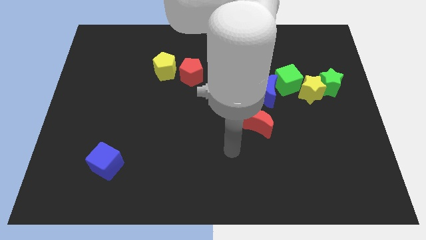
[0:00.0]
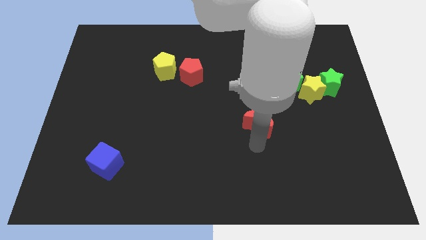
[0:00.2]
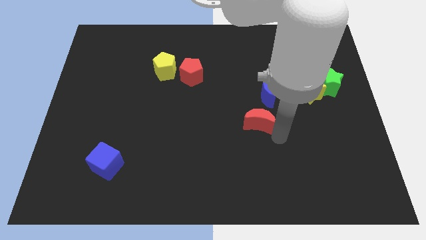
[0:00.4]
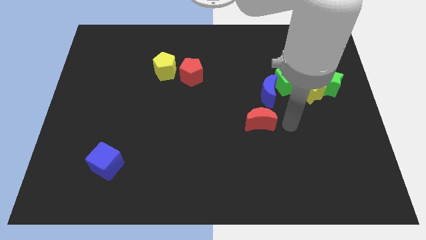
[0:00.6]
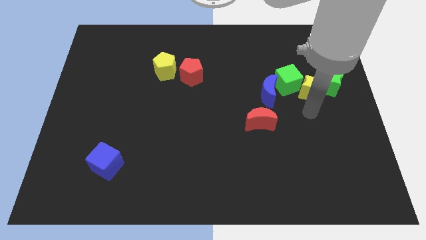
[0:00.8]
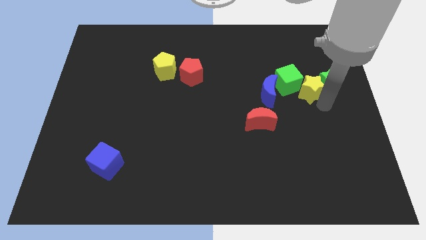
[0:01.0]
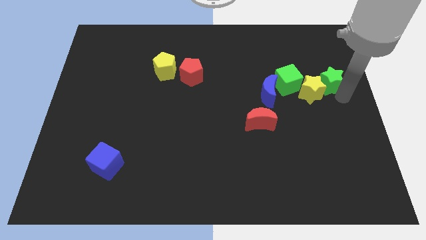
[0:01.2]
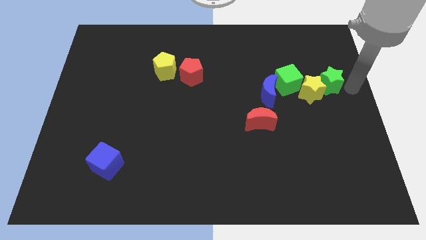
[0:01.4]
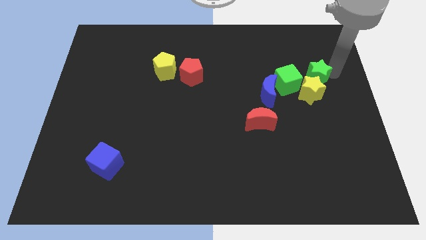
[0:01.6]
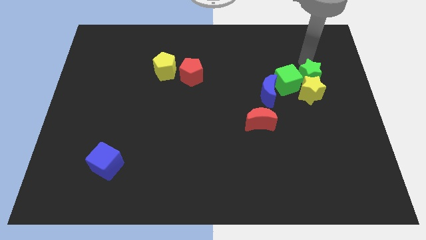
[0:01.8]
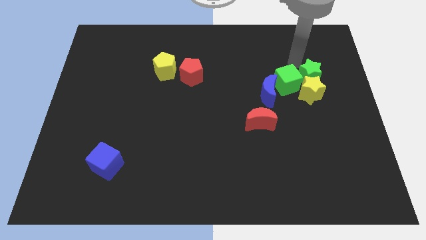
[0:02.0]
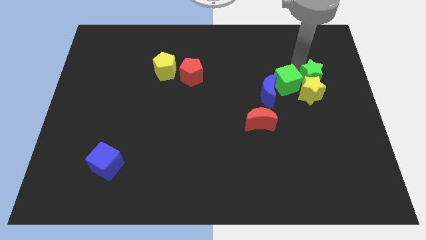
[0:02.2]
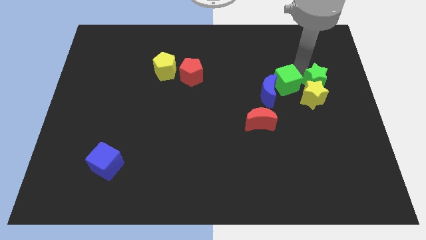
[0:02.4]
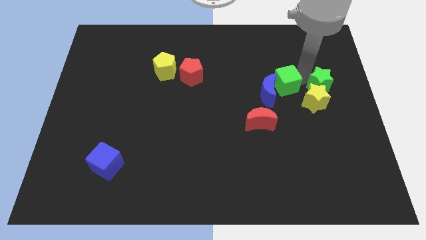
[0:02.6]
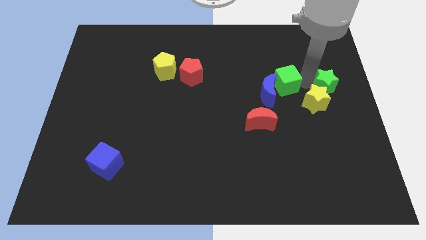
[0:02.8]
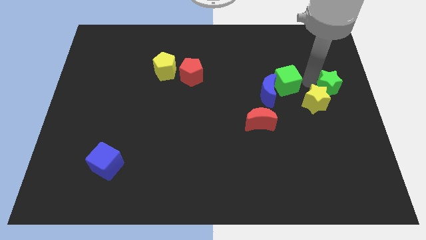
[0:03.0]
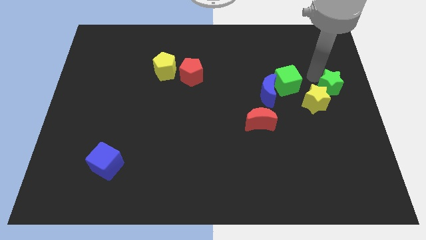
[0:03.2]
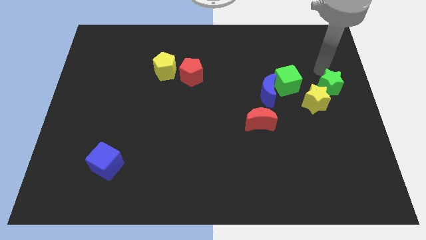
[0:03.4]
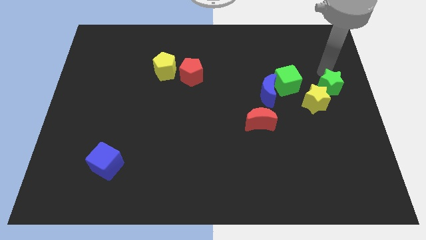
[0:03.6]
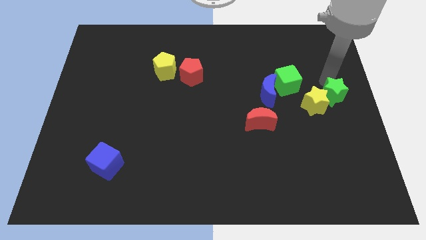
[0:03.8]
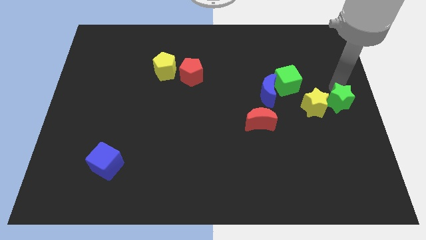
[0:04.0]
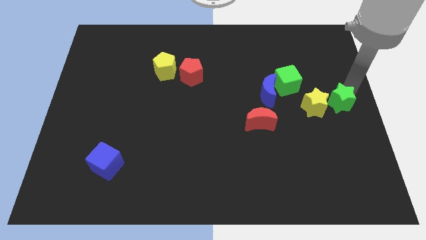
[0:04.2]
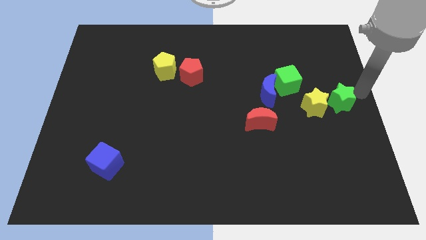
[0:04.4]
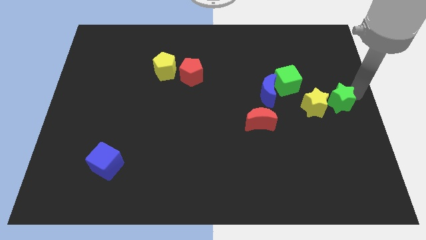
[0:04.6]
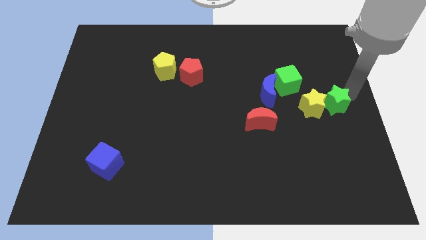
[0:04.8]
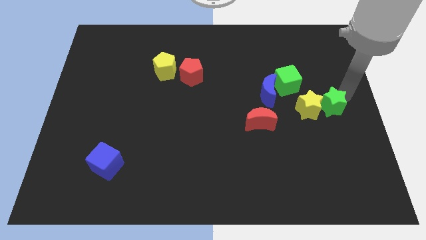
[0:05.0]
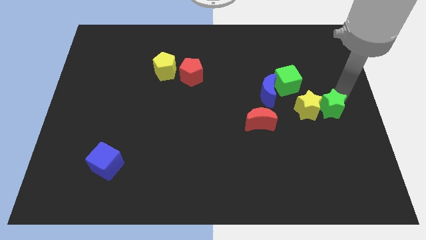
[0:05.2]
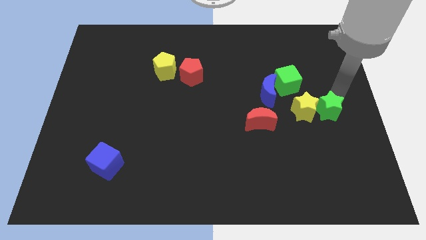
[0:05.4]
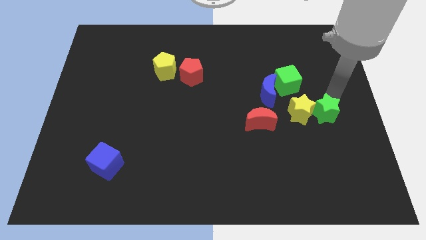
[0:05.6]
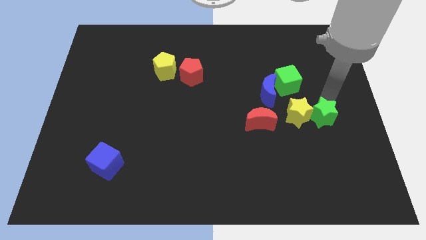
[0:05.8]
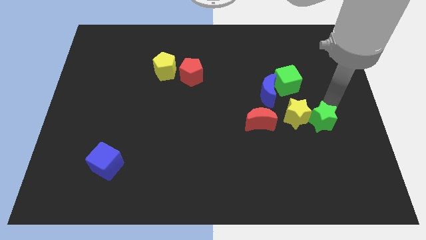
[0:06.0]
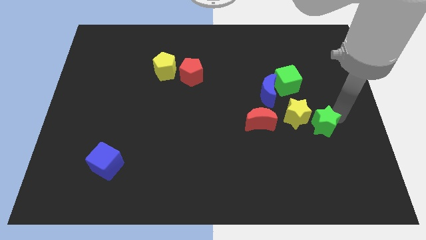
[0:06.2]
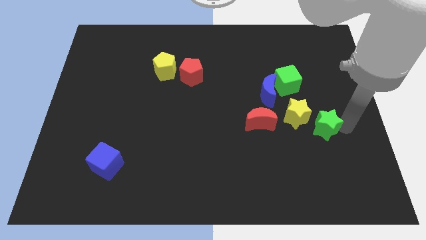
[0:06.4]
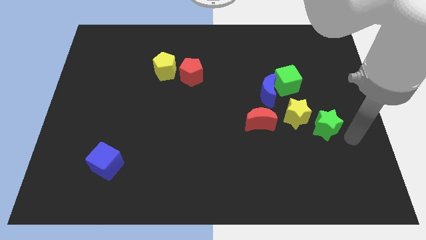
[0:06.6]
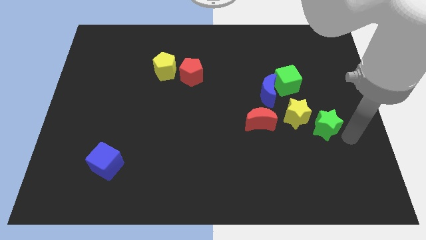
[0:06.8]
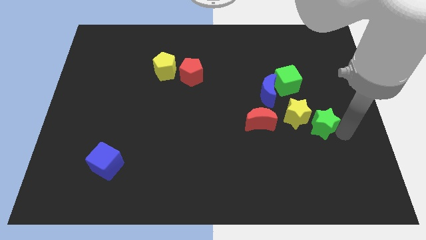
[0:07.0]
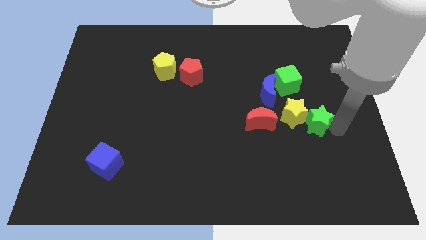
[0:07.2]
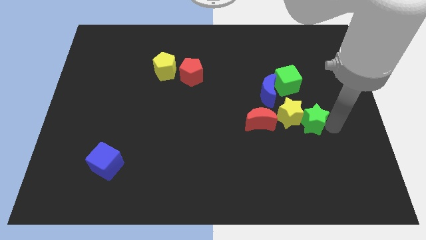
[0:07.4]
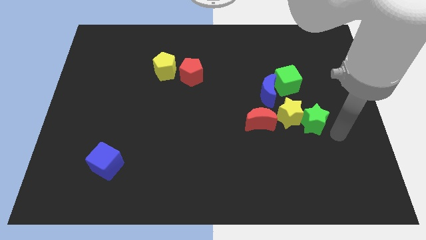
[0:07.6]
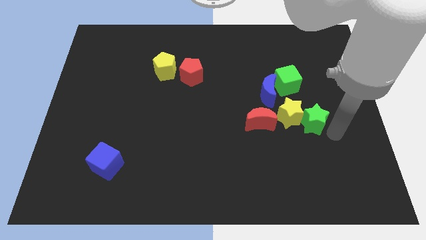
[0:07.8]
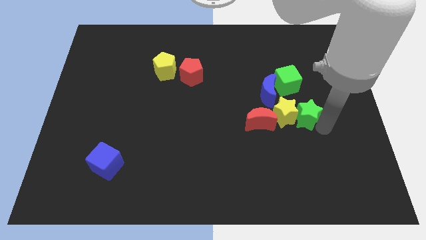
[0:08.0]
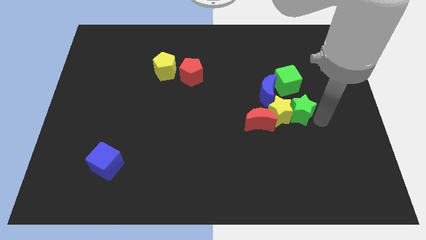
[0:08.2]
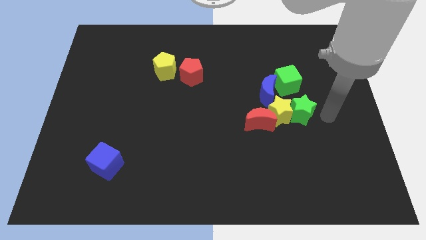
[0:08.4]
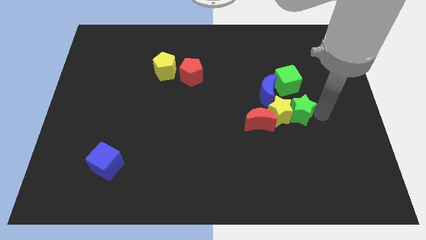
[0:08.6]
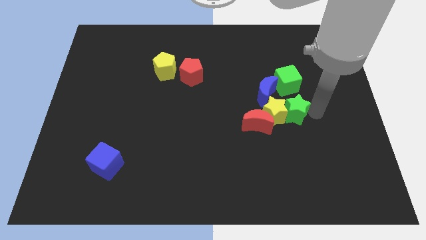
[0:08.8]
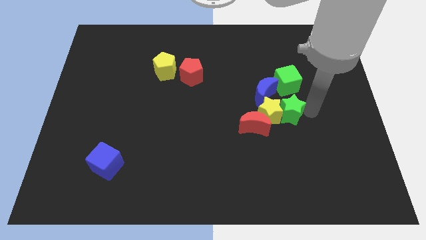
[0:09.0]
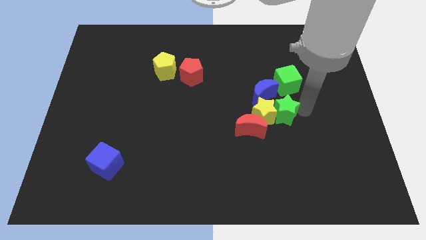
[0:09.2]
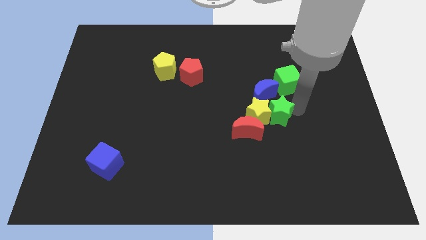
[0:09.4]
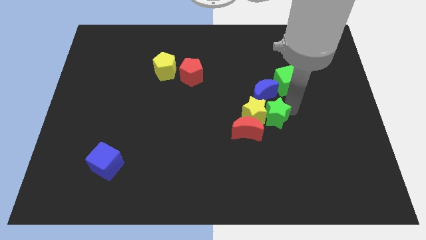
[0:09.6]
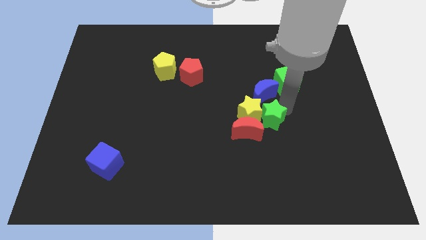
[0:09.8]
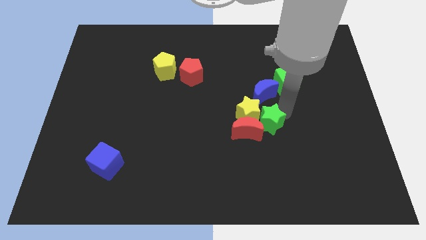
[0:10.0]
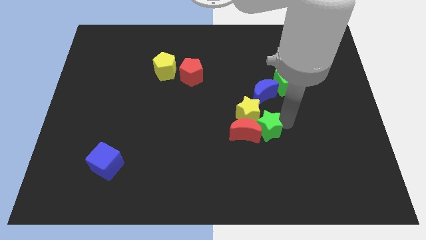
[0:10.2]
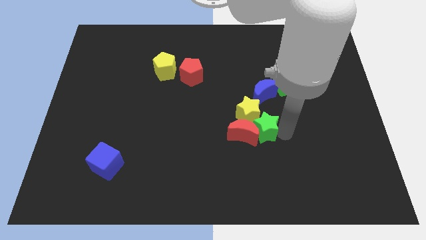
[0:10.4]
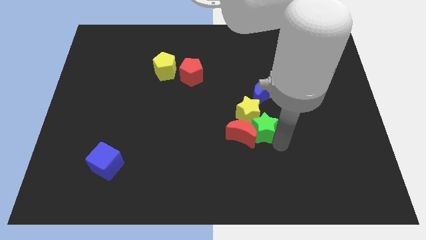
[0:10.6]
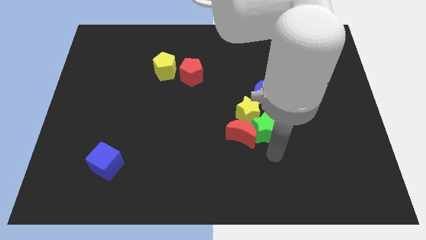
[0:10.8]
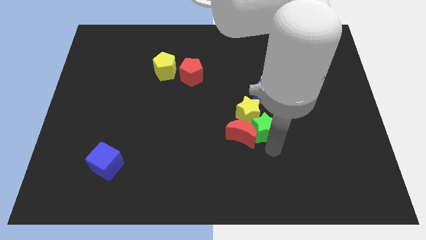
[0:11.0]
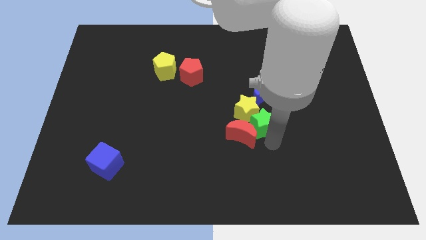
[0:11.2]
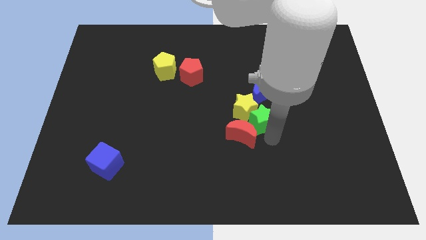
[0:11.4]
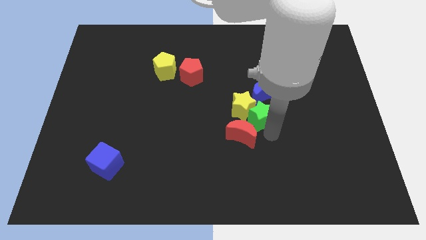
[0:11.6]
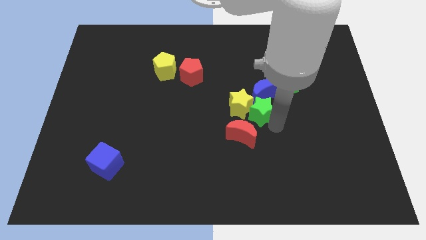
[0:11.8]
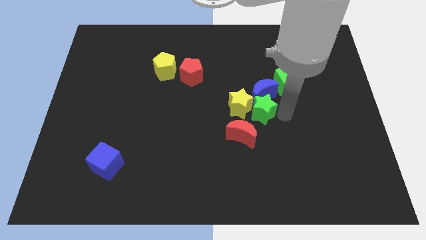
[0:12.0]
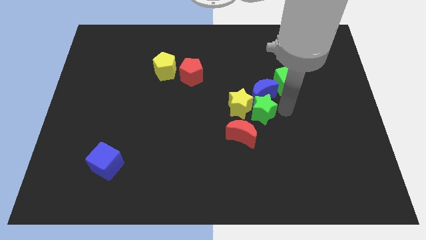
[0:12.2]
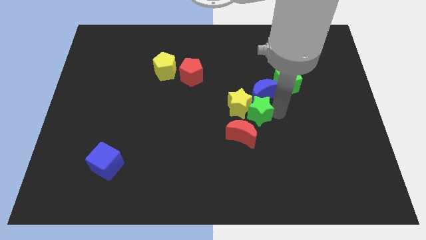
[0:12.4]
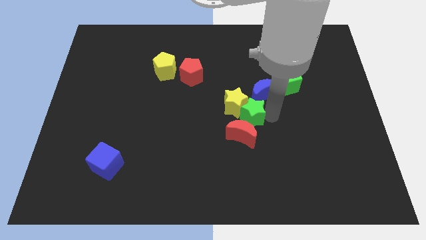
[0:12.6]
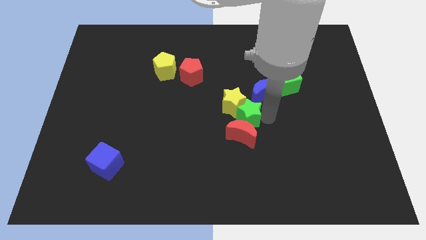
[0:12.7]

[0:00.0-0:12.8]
slide the green star to the top left side of the red moon

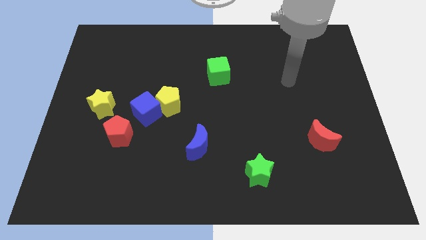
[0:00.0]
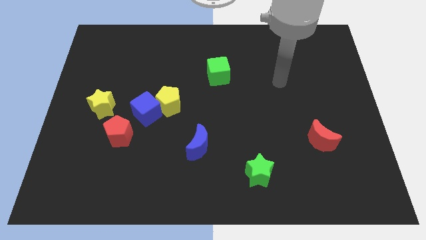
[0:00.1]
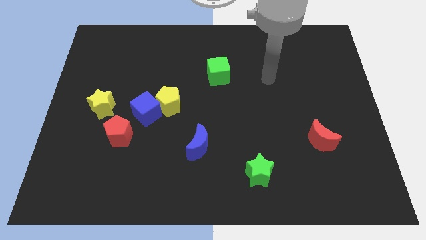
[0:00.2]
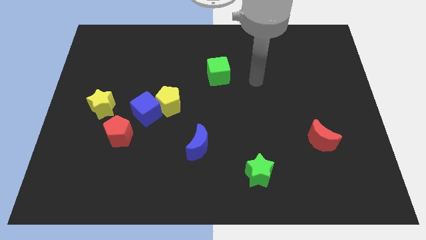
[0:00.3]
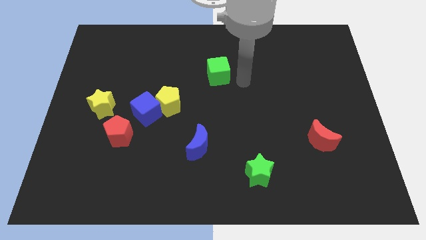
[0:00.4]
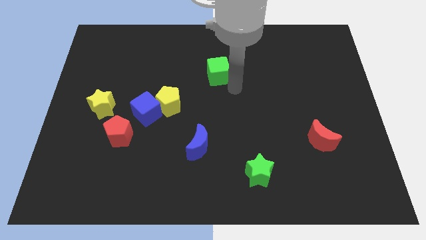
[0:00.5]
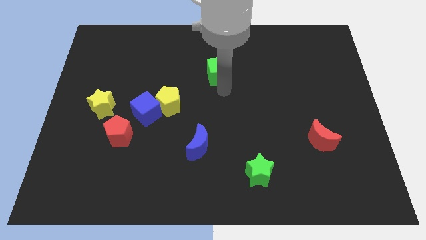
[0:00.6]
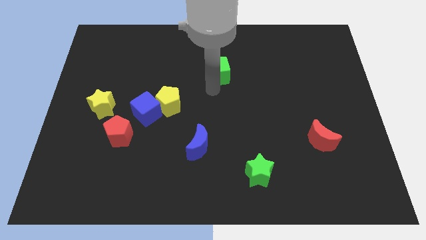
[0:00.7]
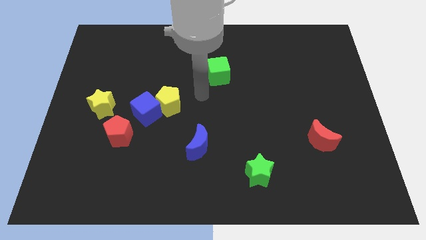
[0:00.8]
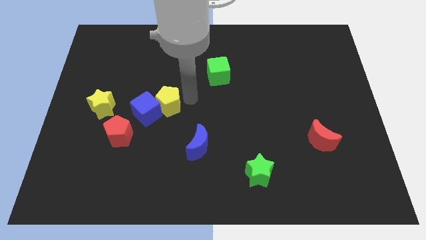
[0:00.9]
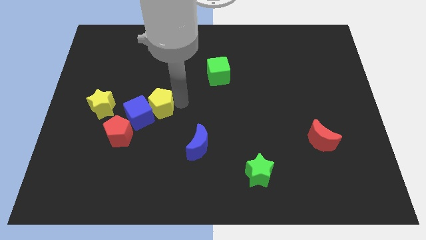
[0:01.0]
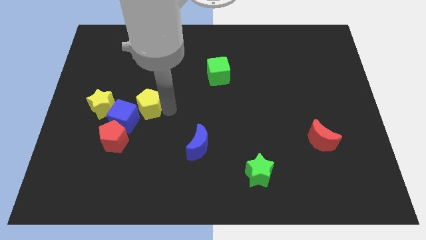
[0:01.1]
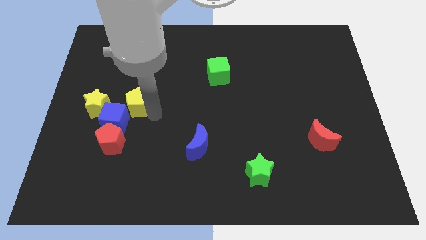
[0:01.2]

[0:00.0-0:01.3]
put the blue cube to the bottom side of the yellow star
